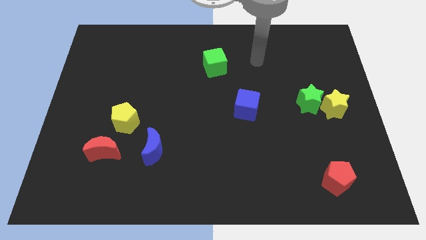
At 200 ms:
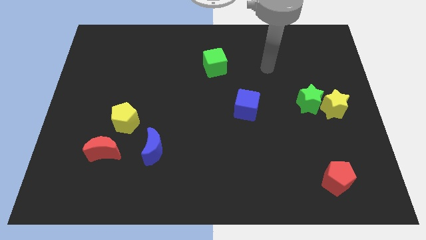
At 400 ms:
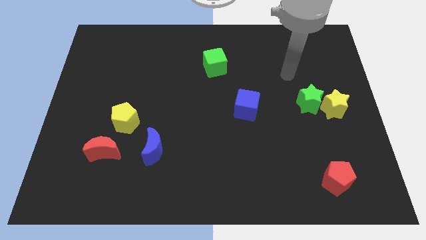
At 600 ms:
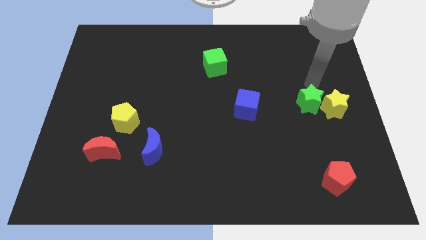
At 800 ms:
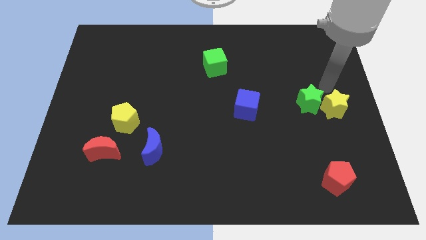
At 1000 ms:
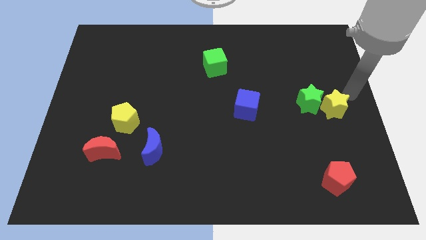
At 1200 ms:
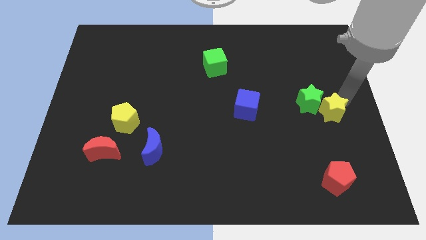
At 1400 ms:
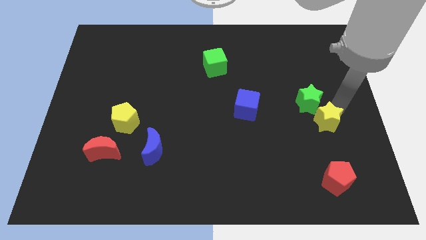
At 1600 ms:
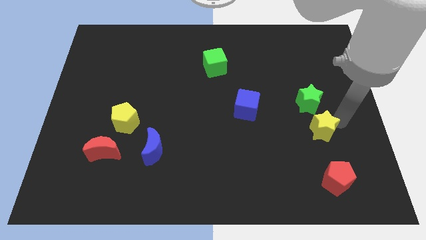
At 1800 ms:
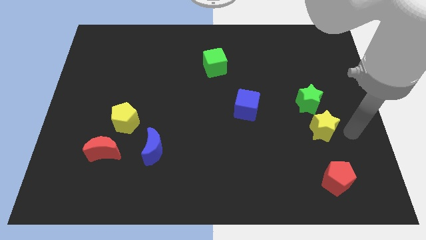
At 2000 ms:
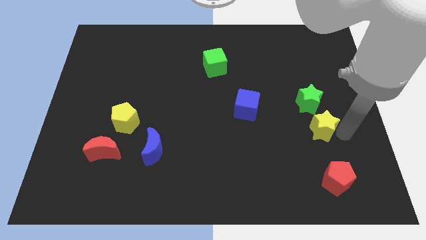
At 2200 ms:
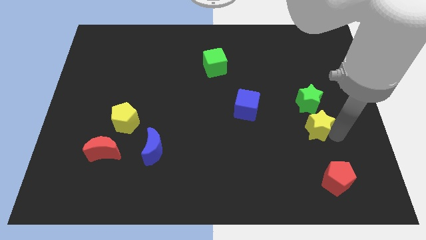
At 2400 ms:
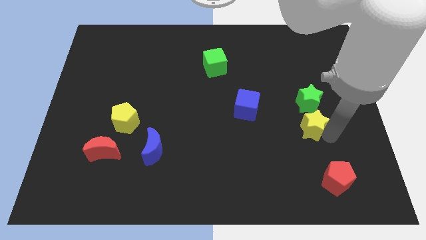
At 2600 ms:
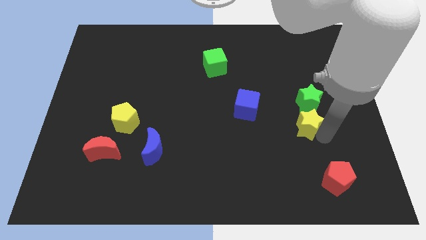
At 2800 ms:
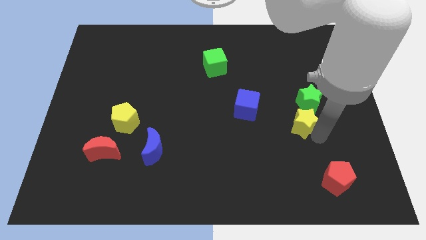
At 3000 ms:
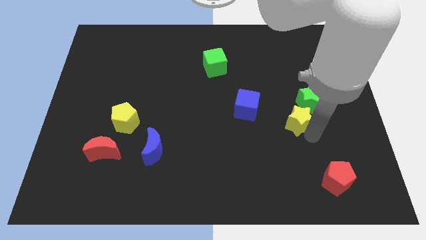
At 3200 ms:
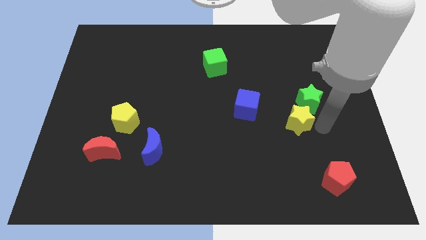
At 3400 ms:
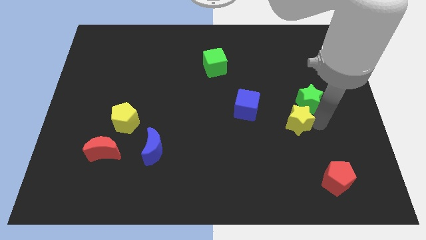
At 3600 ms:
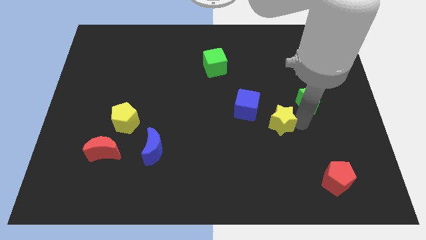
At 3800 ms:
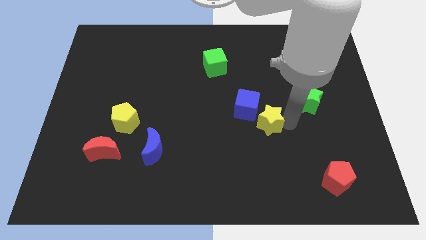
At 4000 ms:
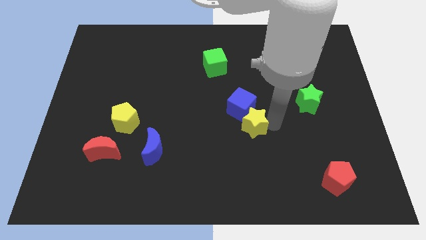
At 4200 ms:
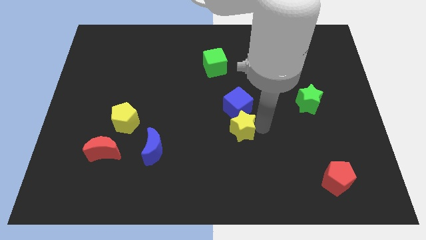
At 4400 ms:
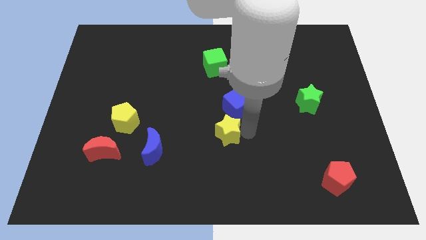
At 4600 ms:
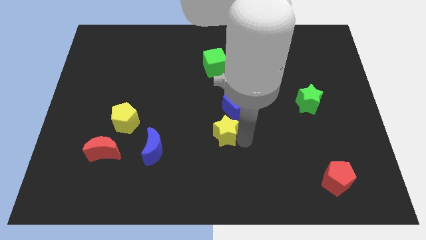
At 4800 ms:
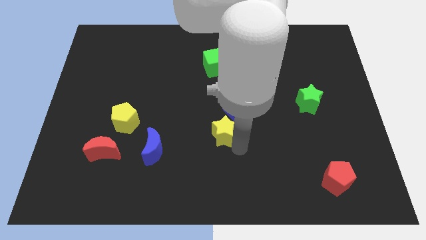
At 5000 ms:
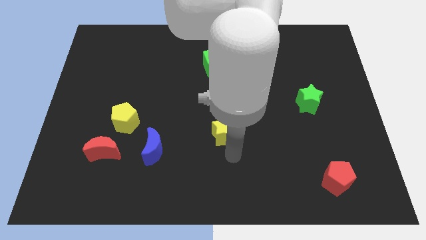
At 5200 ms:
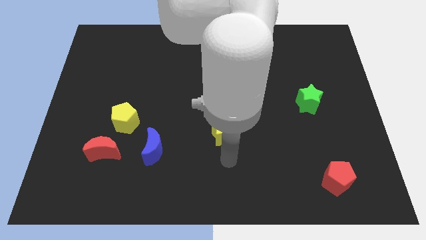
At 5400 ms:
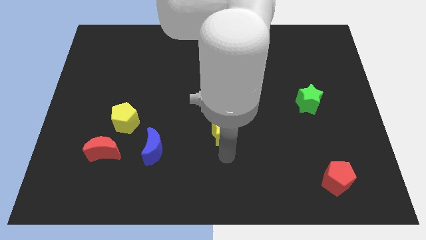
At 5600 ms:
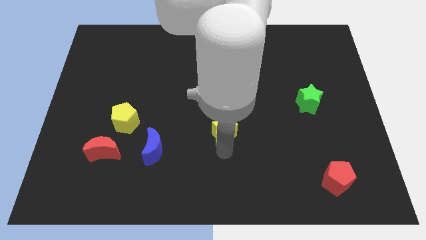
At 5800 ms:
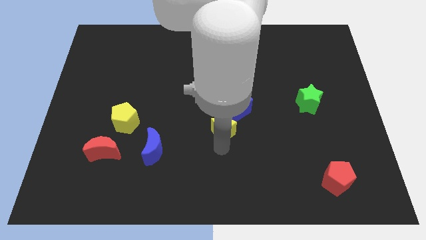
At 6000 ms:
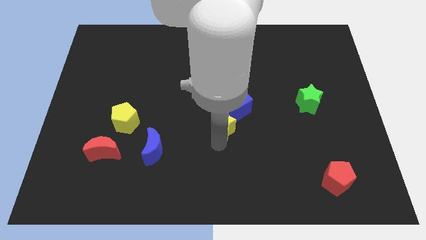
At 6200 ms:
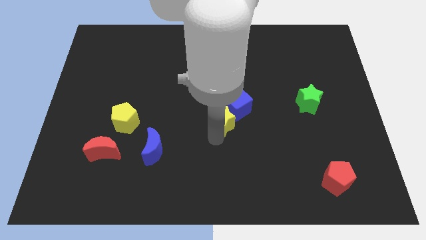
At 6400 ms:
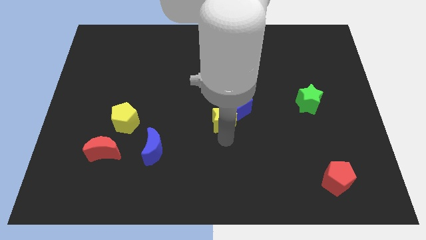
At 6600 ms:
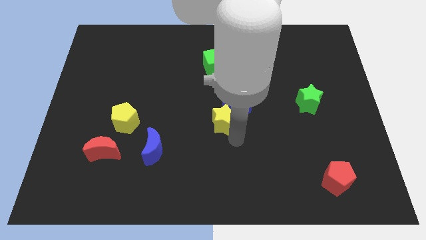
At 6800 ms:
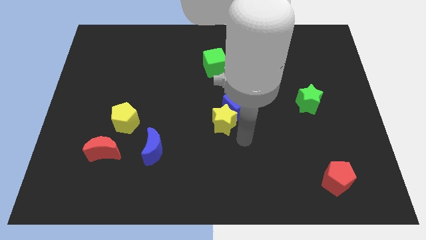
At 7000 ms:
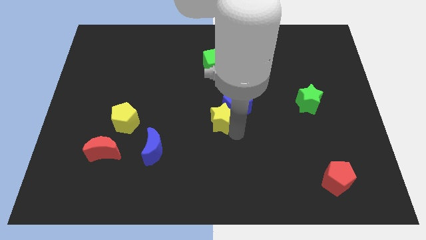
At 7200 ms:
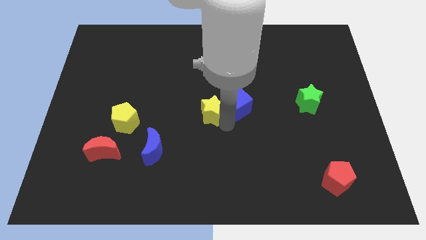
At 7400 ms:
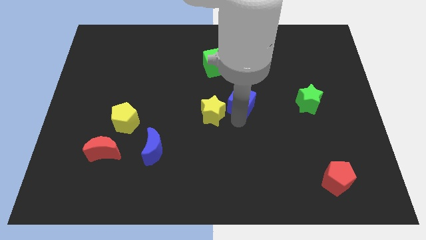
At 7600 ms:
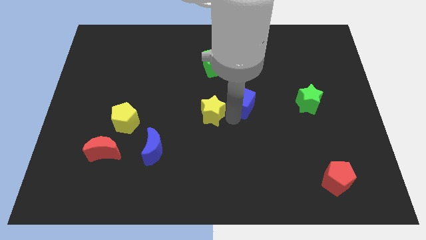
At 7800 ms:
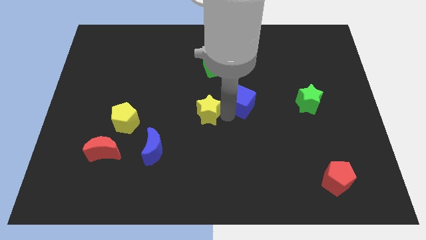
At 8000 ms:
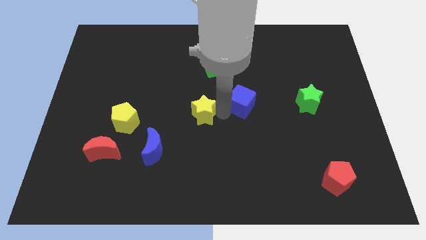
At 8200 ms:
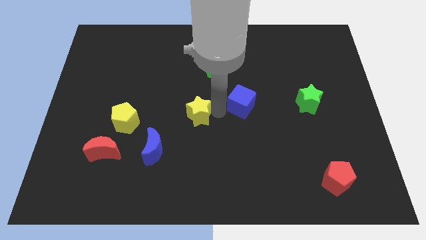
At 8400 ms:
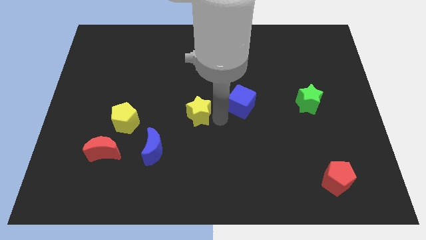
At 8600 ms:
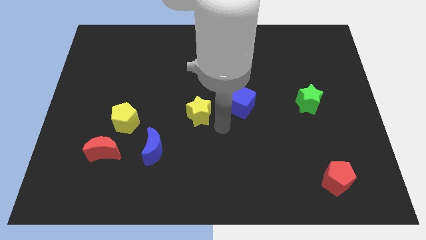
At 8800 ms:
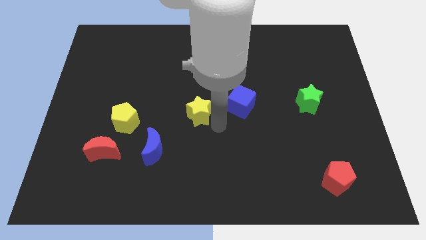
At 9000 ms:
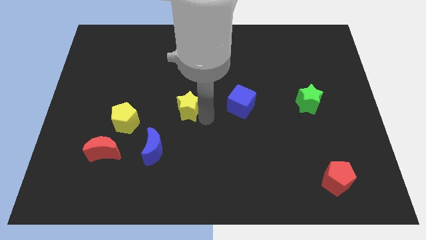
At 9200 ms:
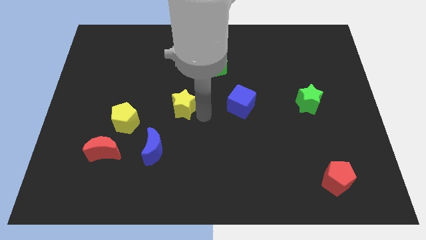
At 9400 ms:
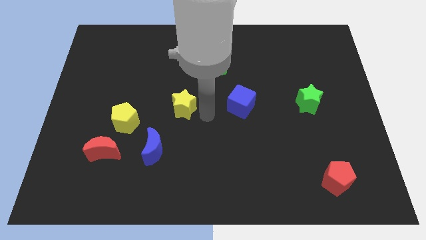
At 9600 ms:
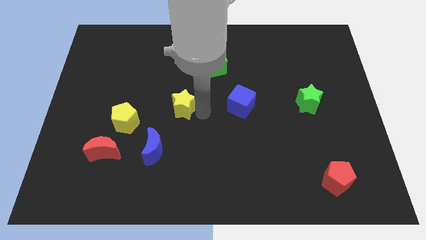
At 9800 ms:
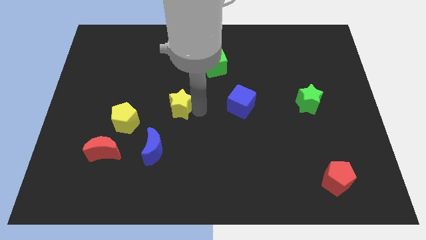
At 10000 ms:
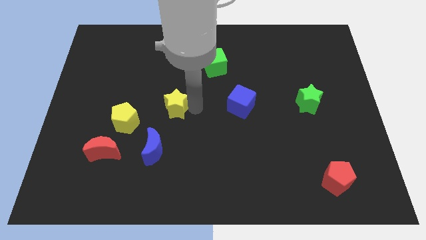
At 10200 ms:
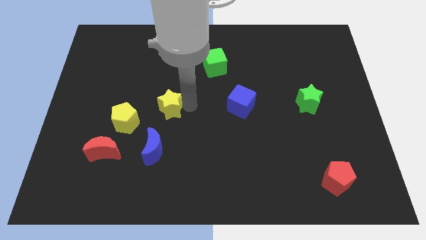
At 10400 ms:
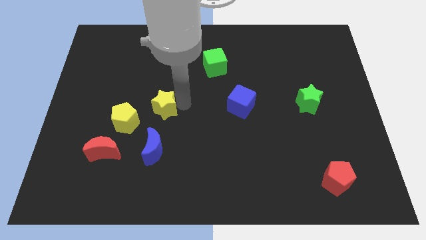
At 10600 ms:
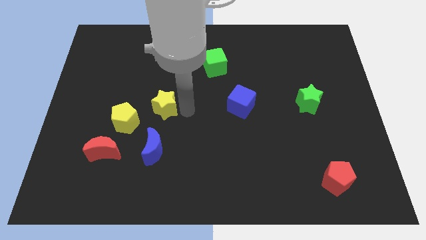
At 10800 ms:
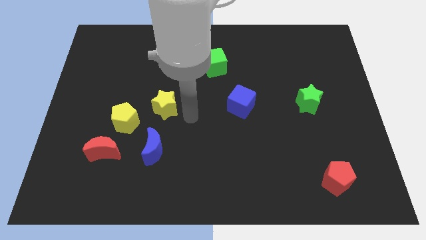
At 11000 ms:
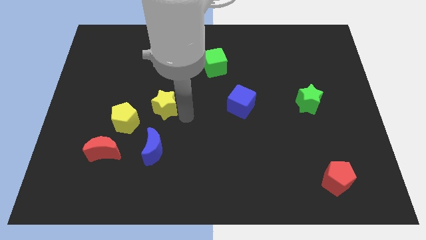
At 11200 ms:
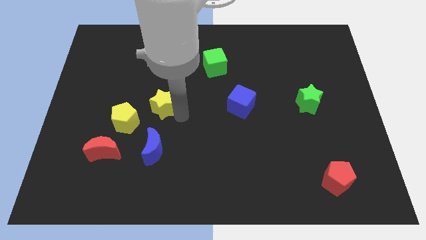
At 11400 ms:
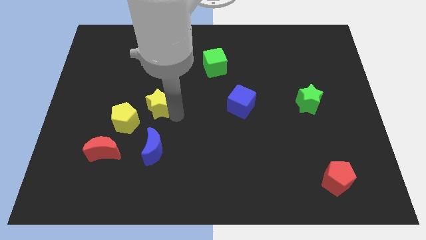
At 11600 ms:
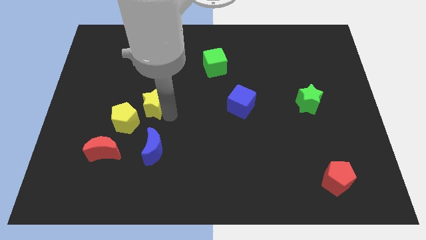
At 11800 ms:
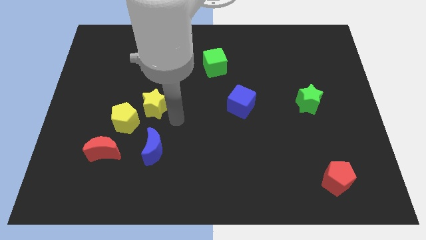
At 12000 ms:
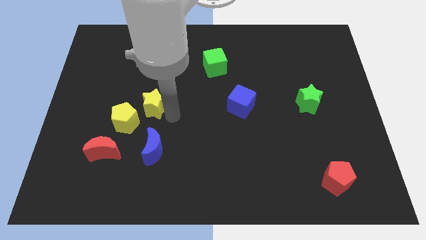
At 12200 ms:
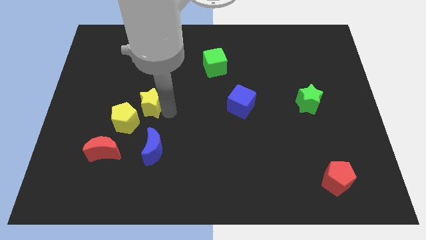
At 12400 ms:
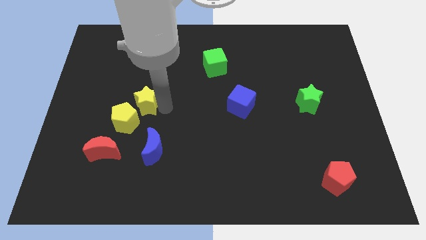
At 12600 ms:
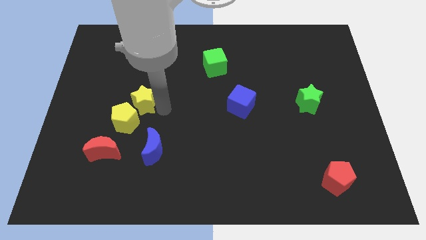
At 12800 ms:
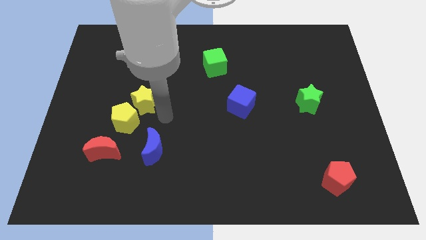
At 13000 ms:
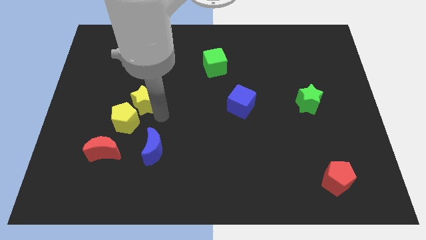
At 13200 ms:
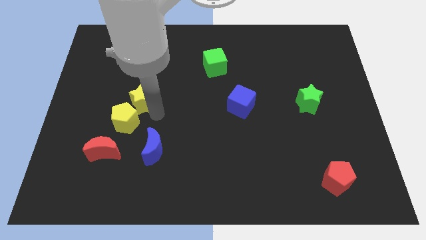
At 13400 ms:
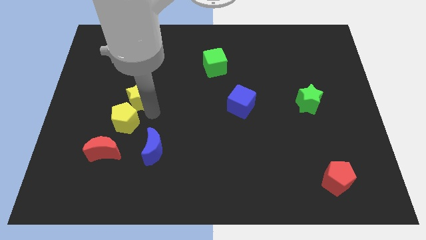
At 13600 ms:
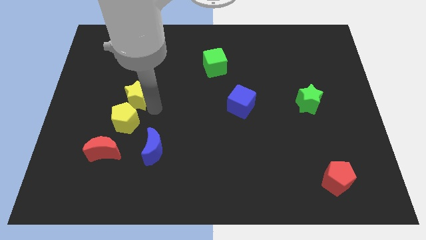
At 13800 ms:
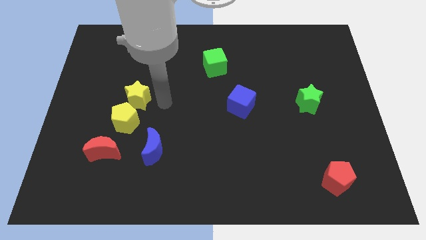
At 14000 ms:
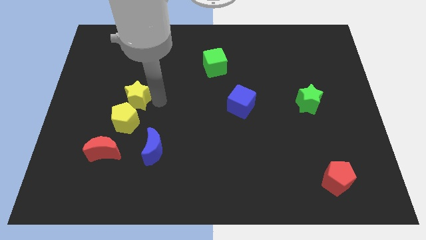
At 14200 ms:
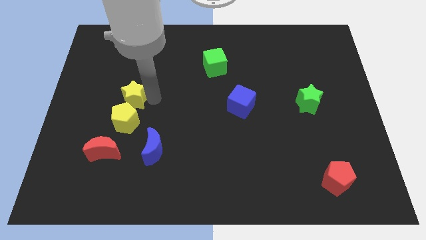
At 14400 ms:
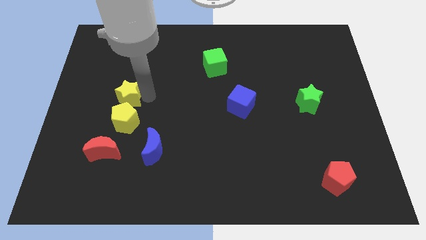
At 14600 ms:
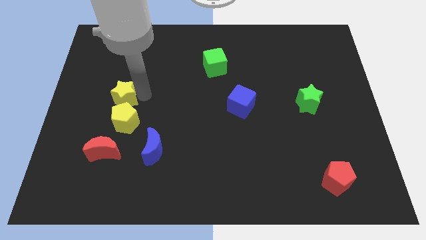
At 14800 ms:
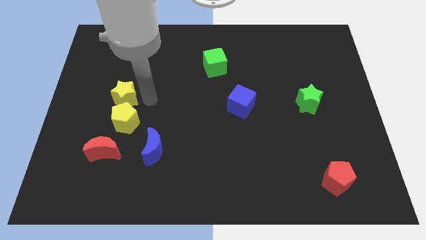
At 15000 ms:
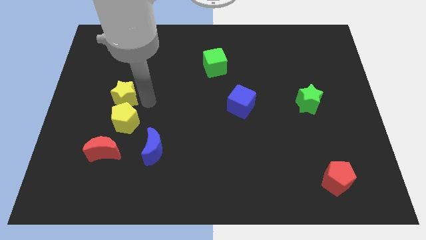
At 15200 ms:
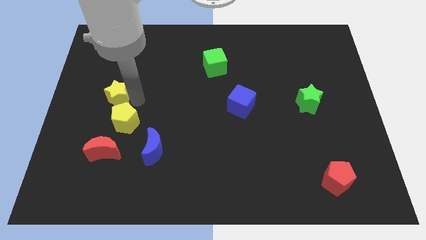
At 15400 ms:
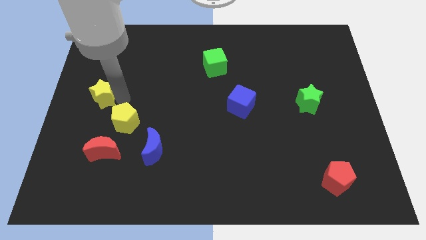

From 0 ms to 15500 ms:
put the yellow star to the left side
